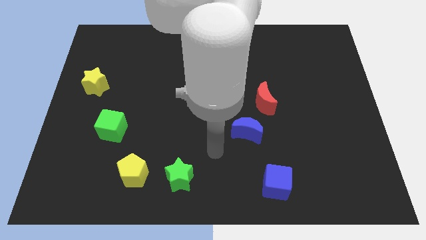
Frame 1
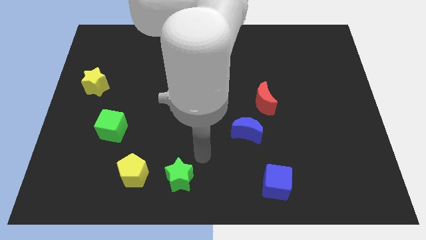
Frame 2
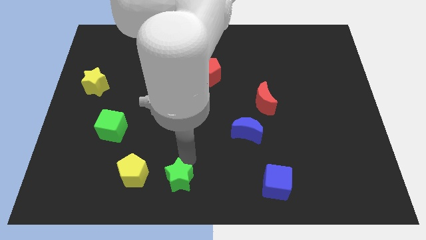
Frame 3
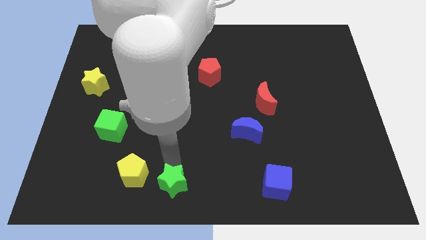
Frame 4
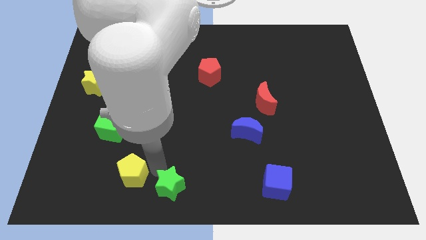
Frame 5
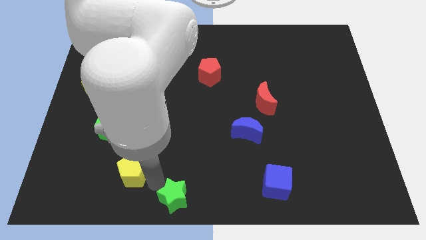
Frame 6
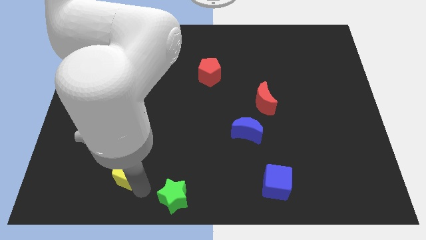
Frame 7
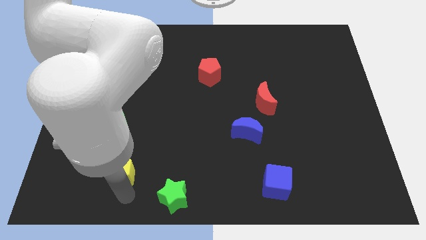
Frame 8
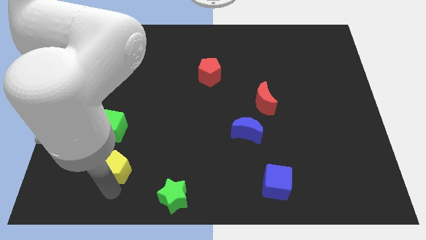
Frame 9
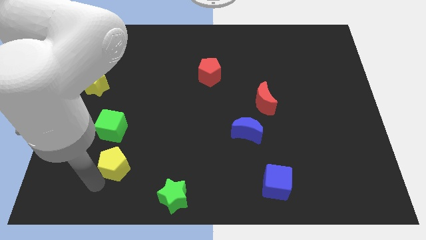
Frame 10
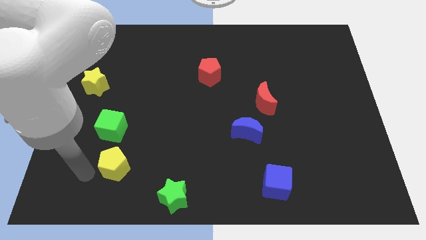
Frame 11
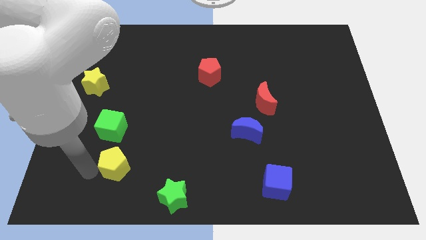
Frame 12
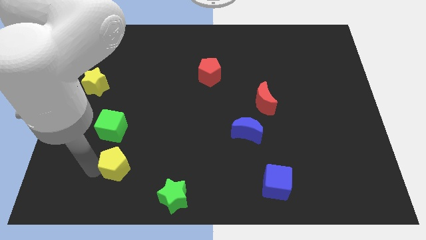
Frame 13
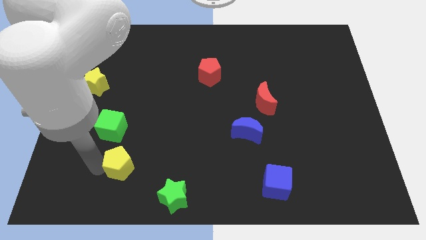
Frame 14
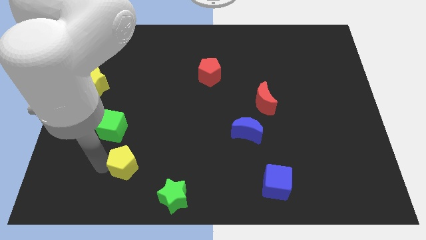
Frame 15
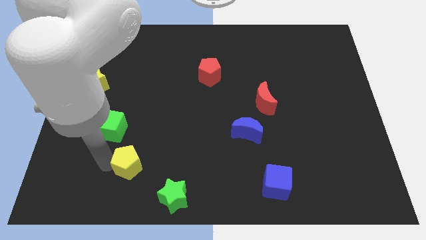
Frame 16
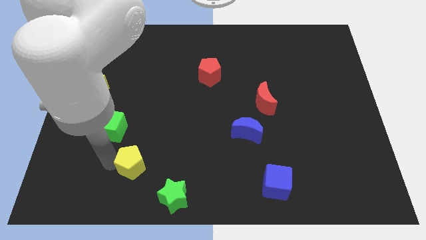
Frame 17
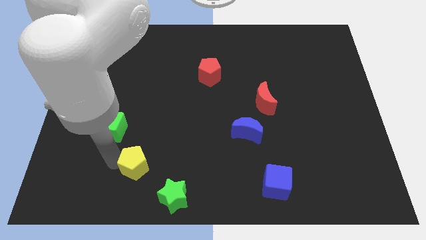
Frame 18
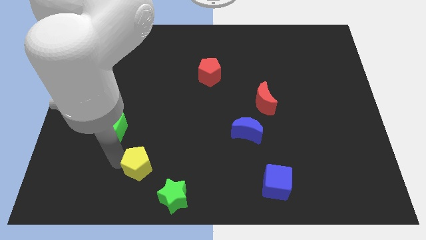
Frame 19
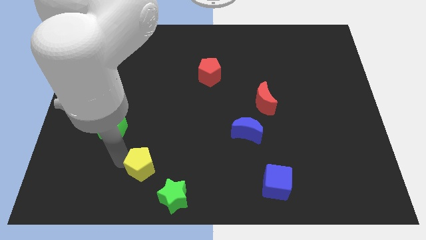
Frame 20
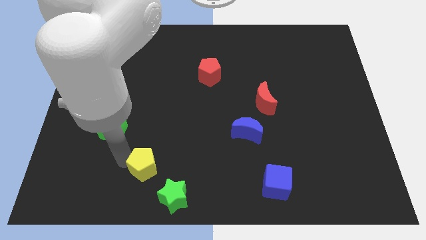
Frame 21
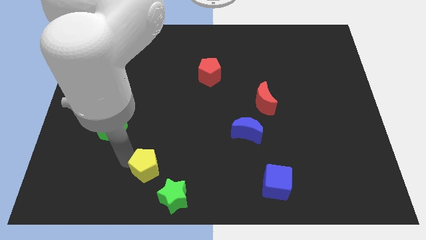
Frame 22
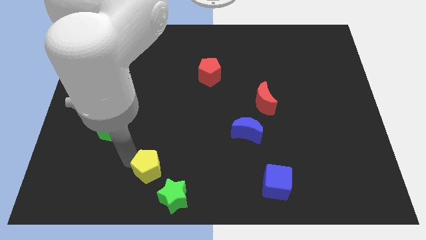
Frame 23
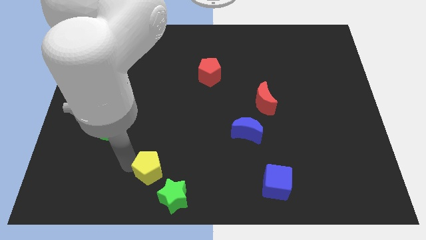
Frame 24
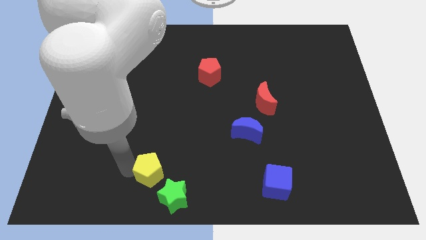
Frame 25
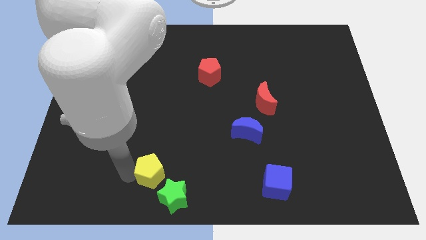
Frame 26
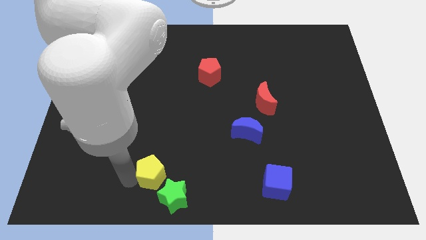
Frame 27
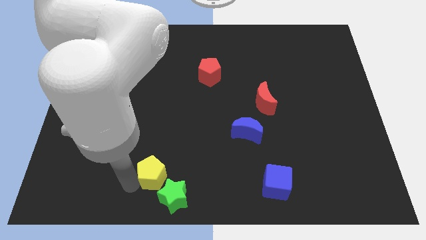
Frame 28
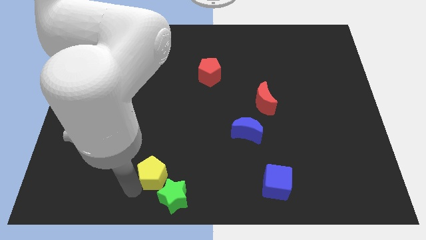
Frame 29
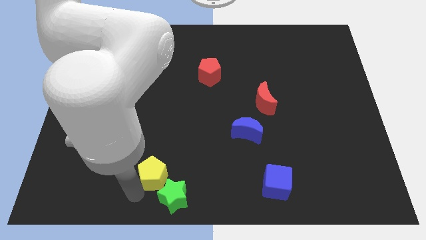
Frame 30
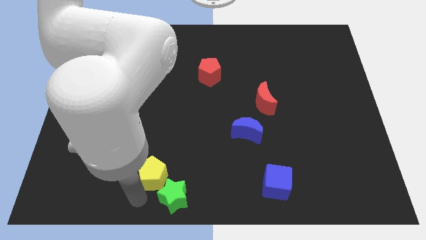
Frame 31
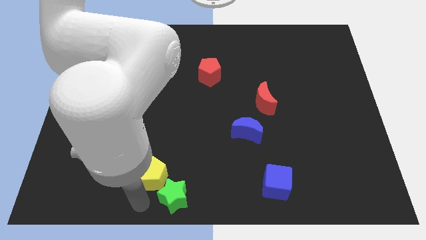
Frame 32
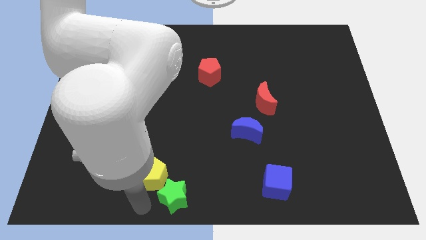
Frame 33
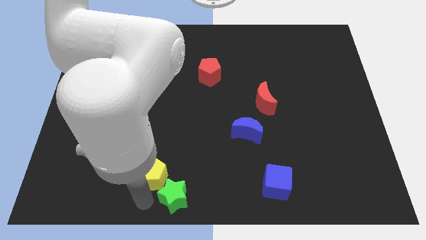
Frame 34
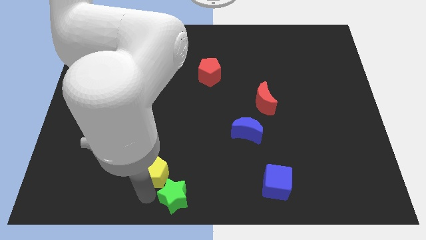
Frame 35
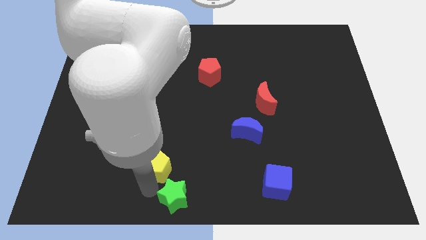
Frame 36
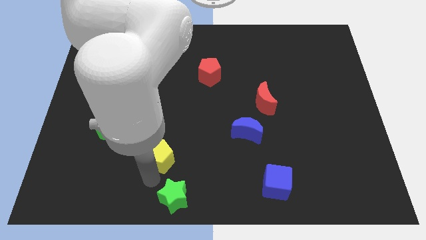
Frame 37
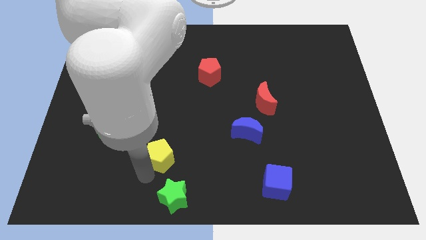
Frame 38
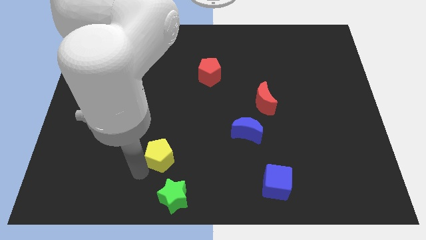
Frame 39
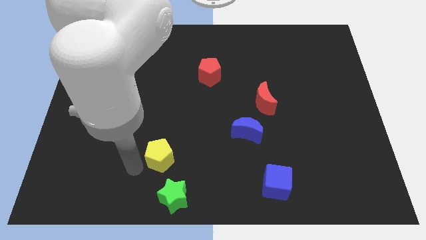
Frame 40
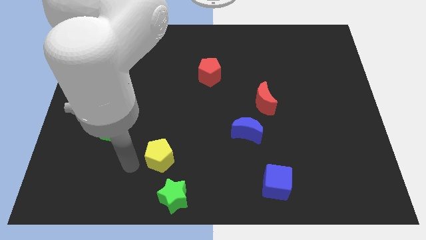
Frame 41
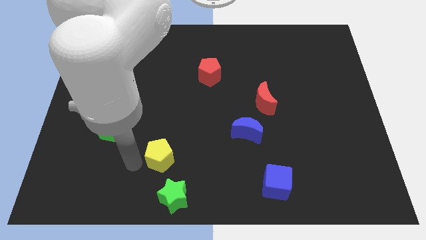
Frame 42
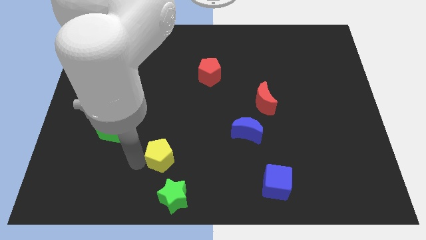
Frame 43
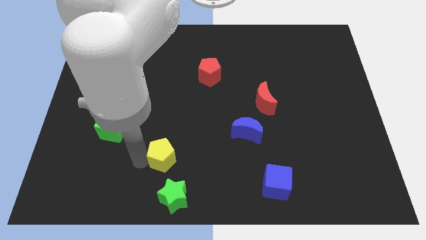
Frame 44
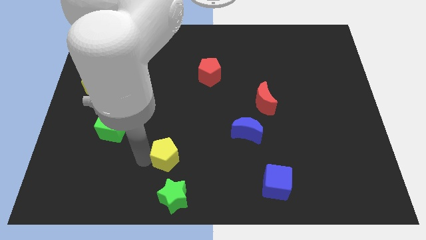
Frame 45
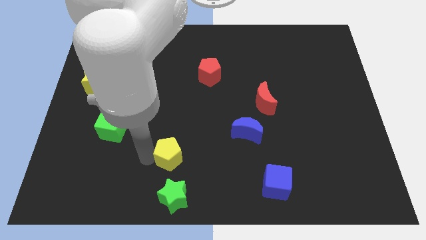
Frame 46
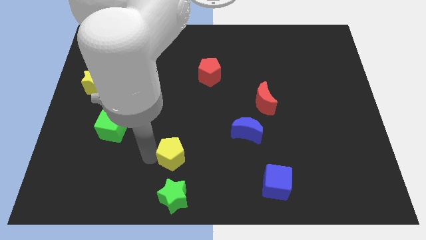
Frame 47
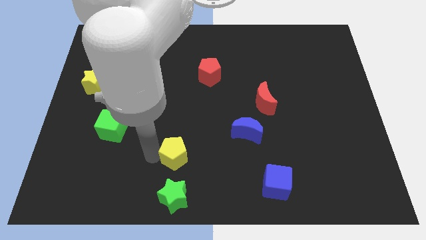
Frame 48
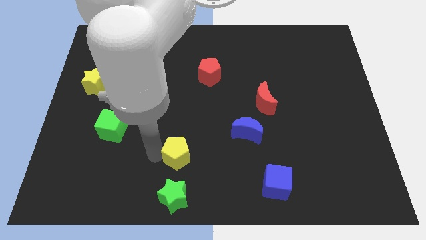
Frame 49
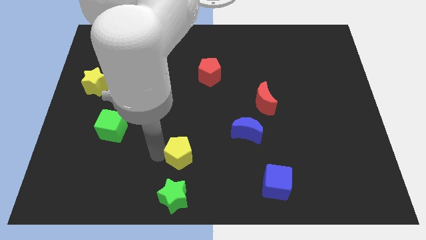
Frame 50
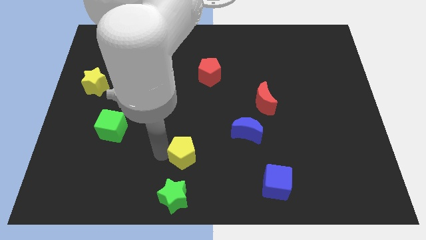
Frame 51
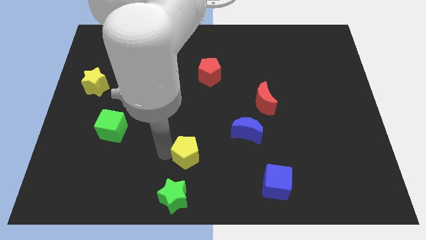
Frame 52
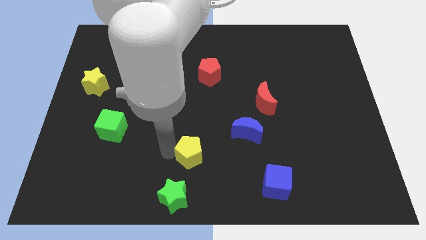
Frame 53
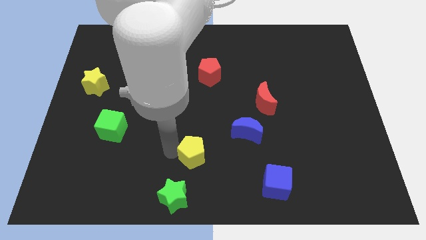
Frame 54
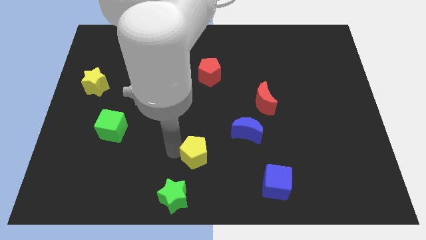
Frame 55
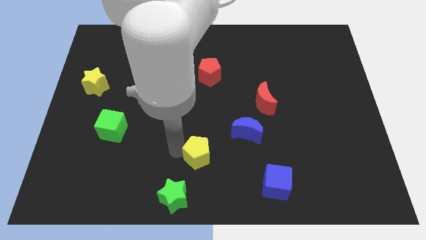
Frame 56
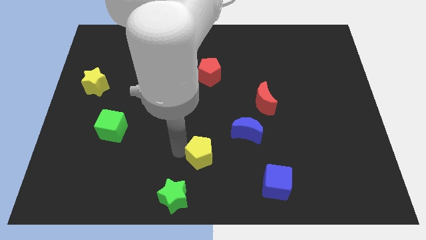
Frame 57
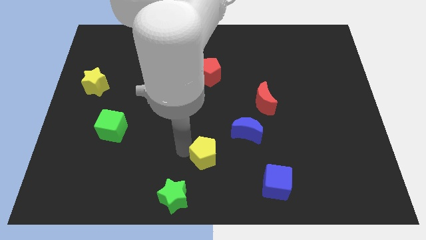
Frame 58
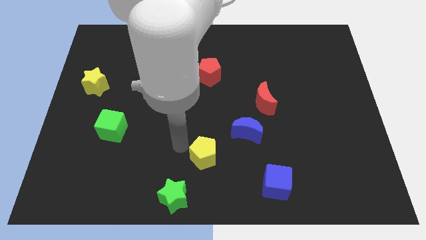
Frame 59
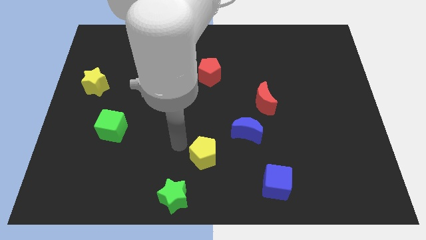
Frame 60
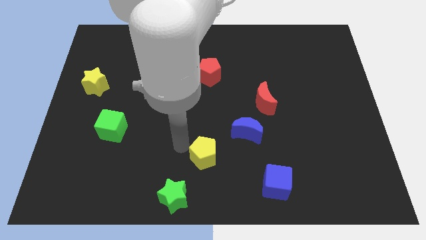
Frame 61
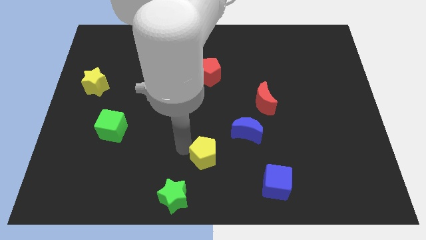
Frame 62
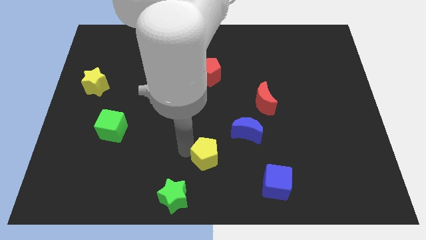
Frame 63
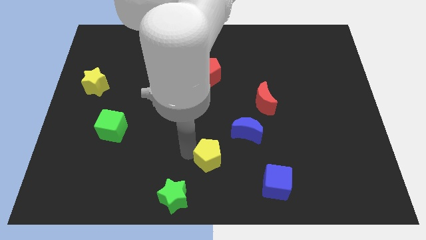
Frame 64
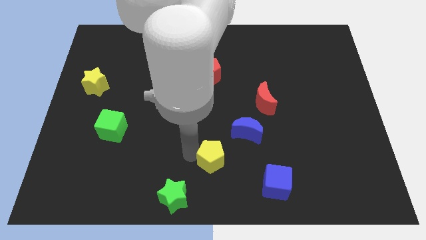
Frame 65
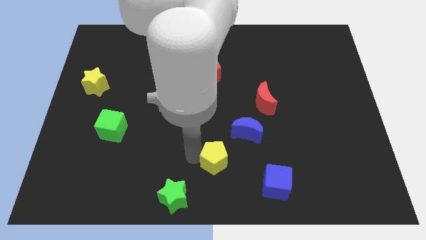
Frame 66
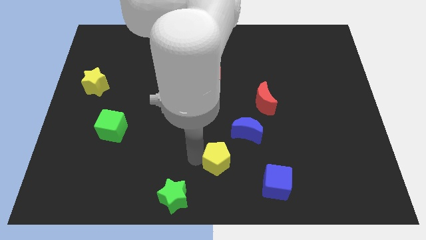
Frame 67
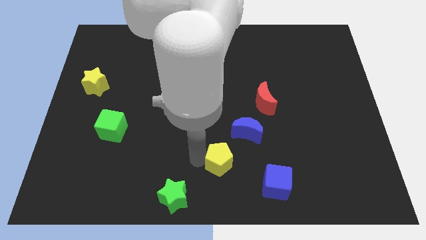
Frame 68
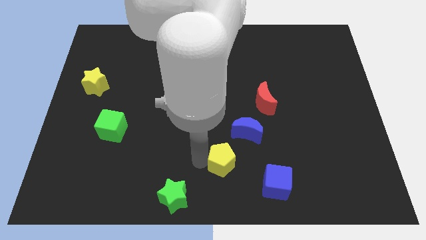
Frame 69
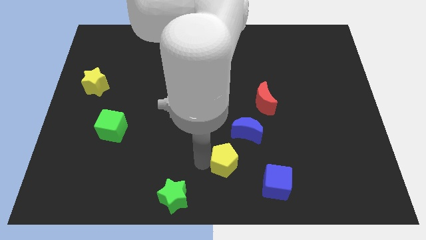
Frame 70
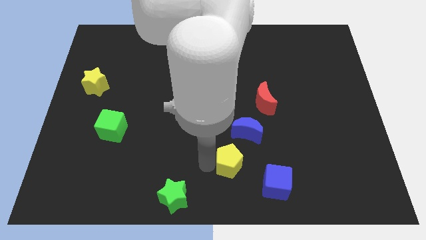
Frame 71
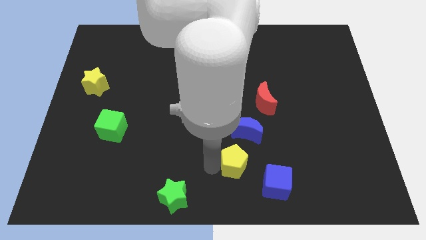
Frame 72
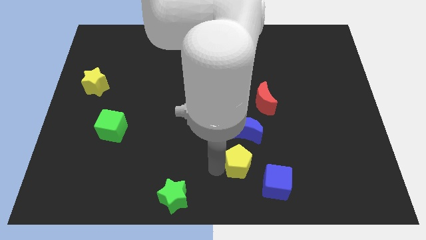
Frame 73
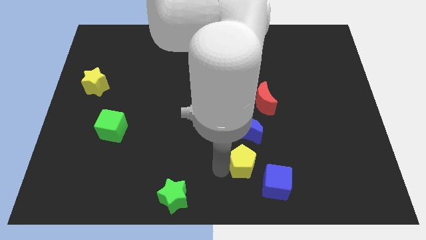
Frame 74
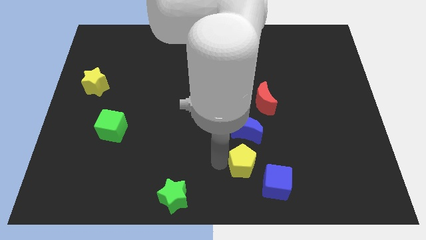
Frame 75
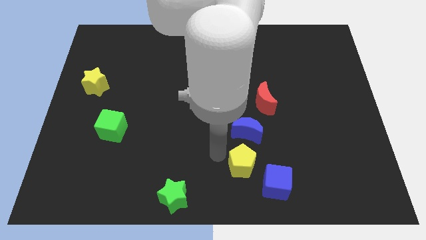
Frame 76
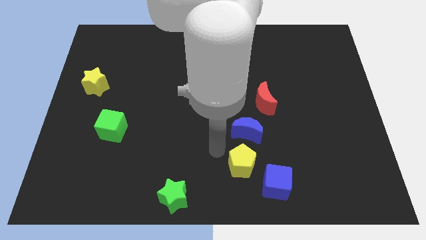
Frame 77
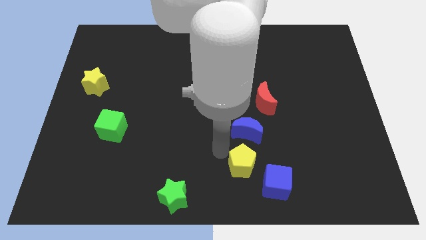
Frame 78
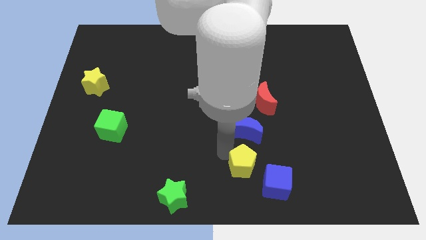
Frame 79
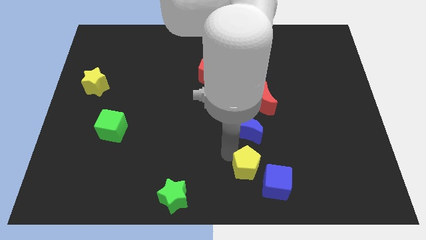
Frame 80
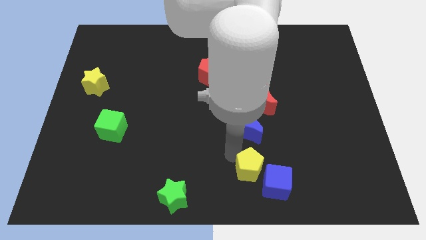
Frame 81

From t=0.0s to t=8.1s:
push the yellow pentagon to the blue cube
